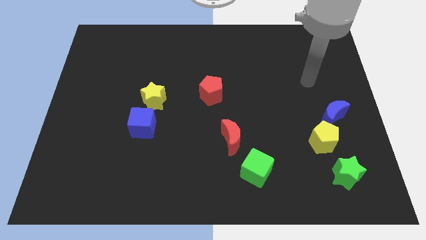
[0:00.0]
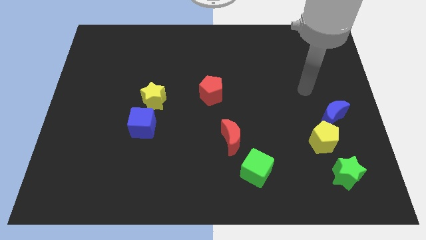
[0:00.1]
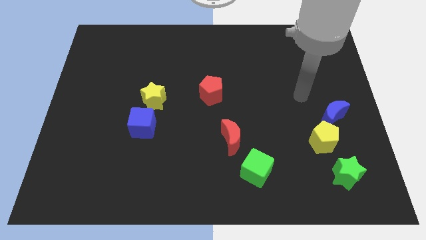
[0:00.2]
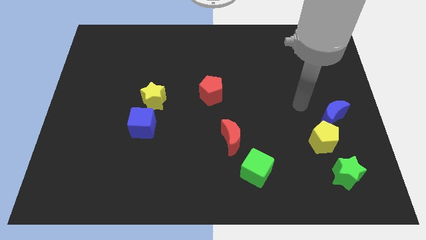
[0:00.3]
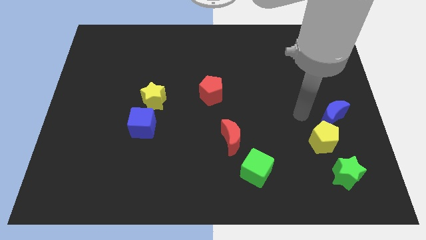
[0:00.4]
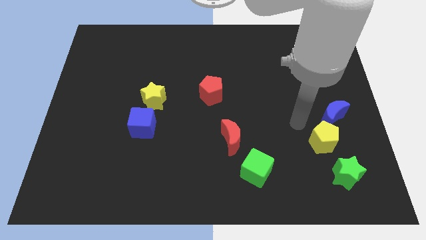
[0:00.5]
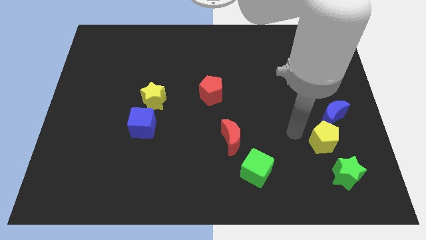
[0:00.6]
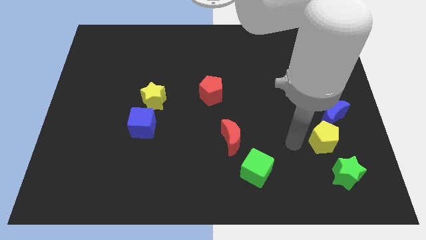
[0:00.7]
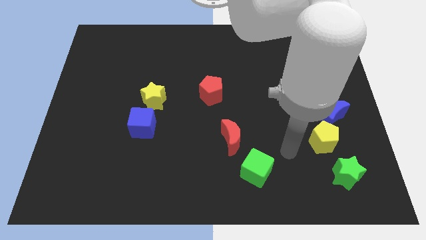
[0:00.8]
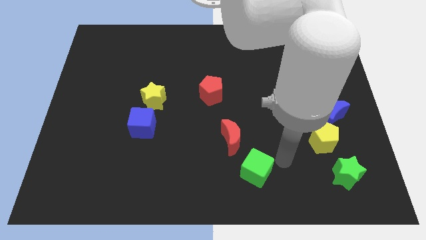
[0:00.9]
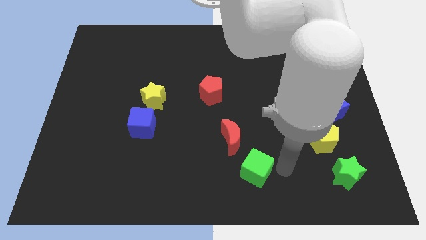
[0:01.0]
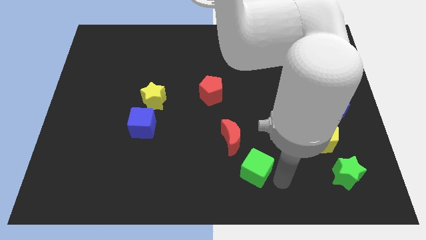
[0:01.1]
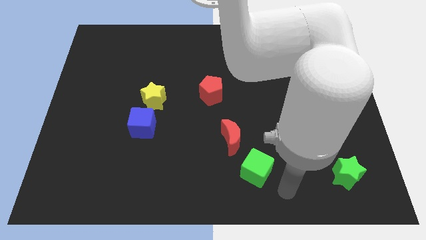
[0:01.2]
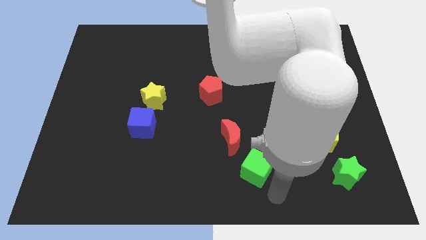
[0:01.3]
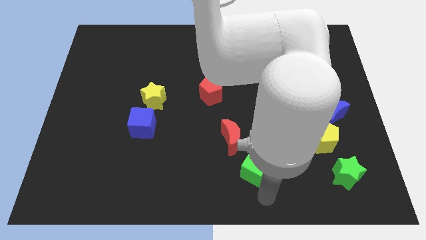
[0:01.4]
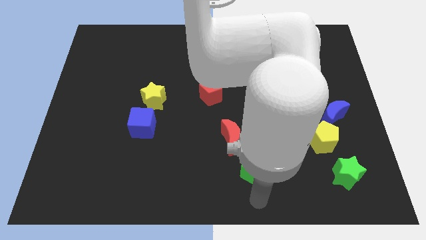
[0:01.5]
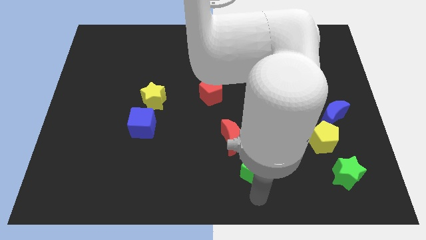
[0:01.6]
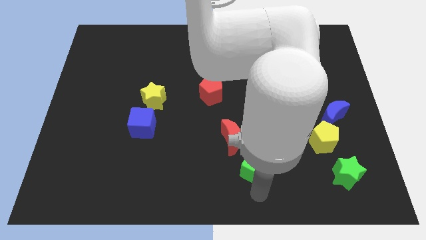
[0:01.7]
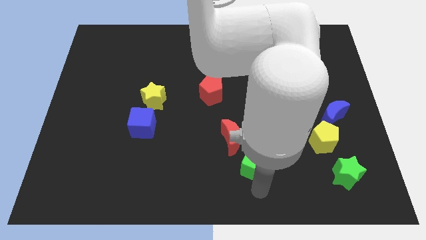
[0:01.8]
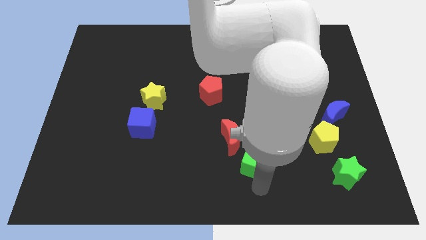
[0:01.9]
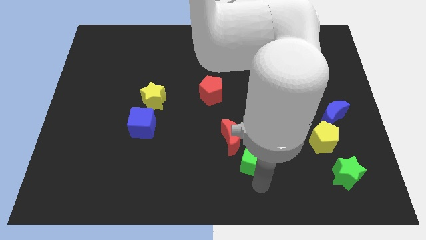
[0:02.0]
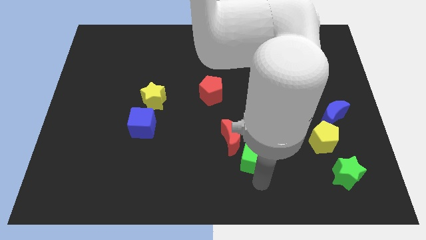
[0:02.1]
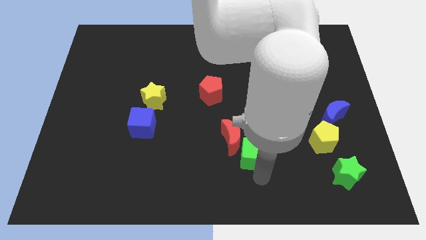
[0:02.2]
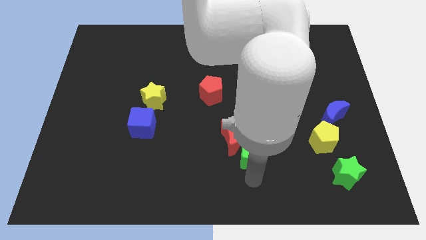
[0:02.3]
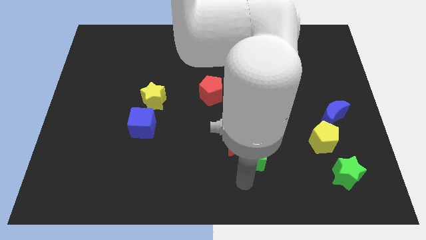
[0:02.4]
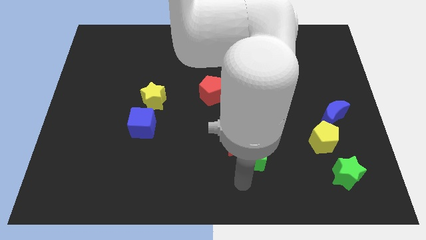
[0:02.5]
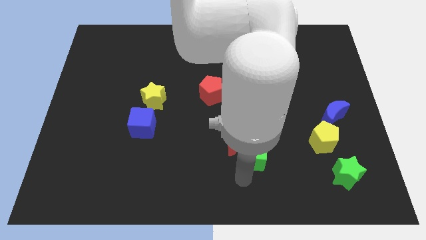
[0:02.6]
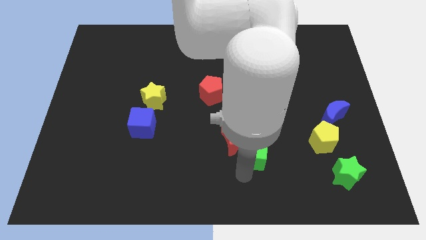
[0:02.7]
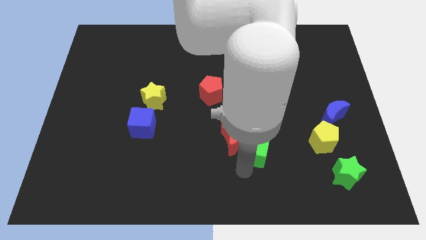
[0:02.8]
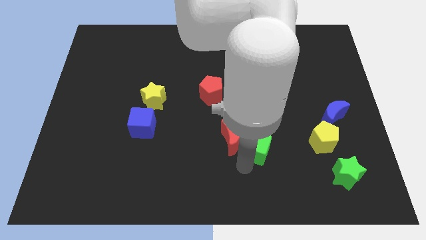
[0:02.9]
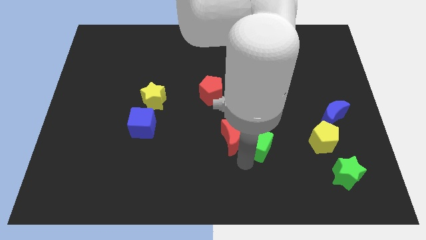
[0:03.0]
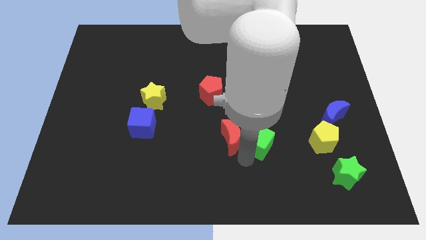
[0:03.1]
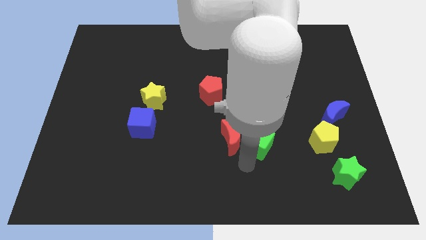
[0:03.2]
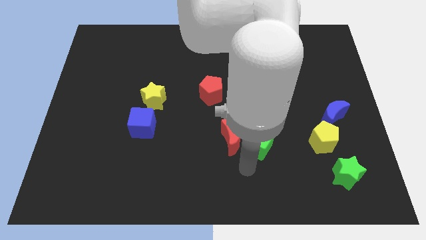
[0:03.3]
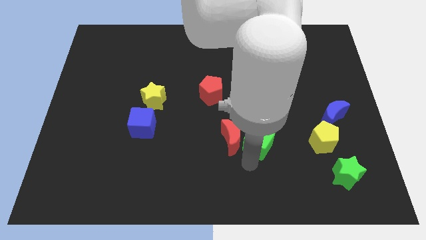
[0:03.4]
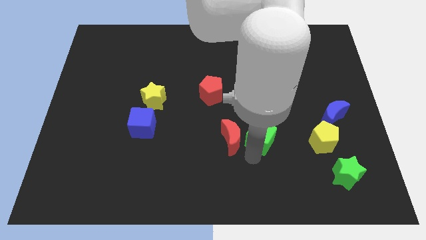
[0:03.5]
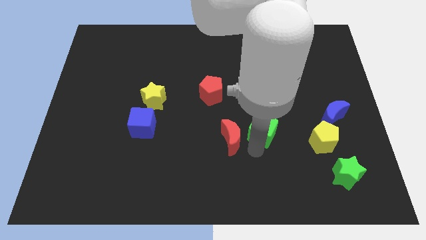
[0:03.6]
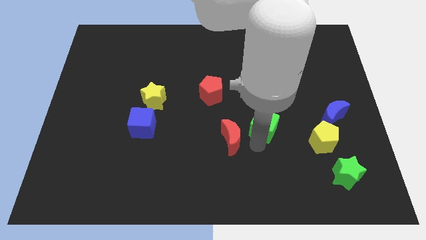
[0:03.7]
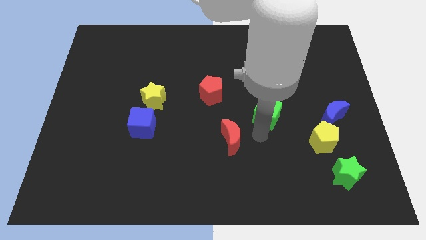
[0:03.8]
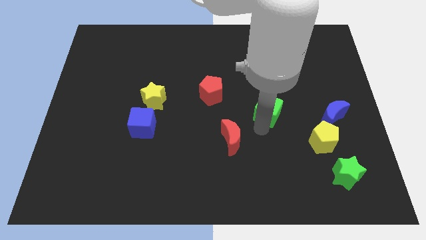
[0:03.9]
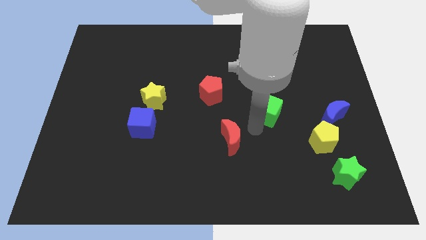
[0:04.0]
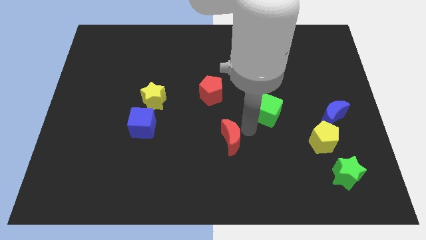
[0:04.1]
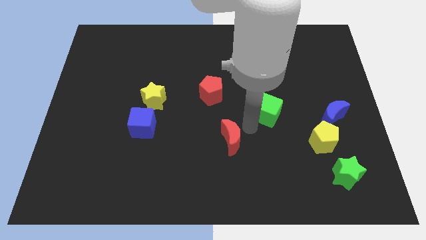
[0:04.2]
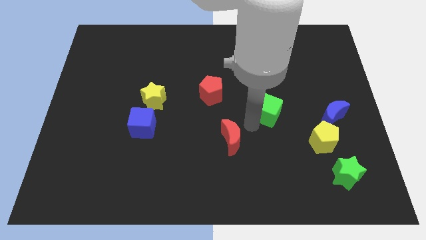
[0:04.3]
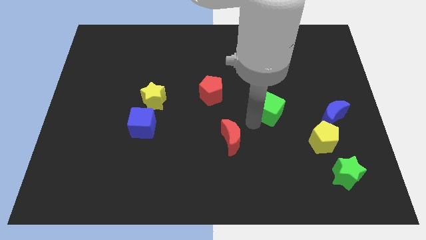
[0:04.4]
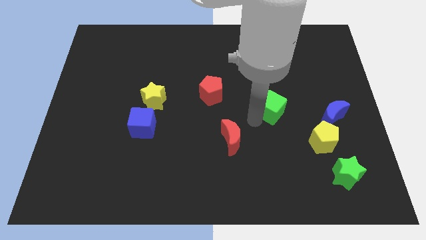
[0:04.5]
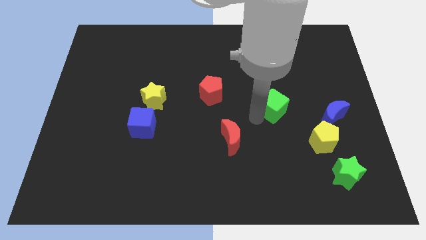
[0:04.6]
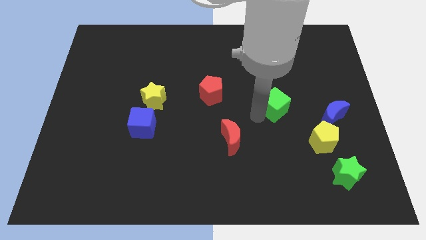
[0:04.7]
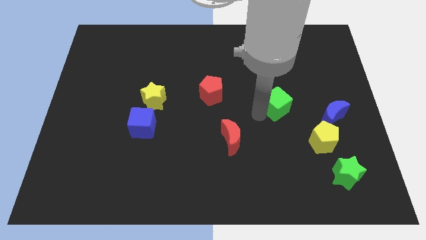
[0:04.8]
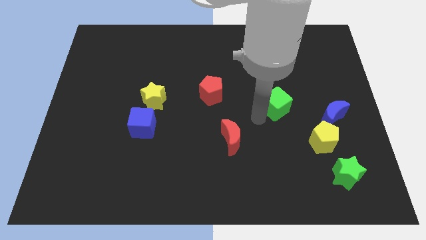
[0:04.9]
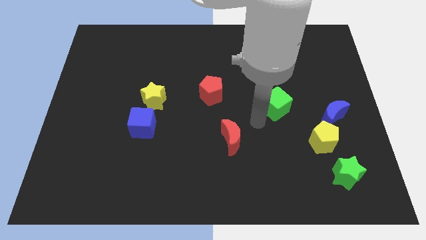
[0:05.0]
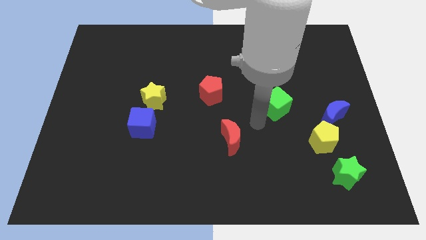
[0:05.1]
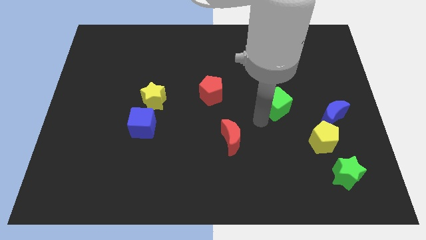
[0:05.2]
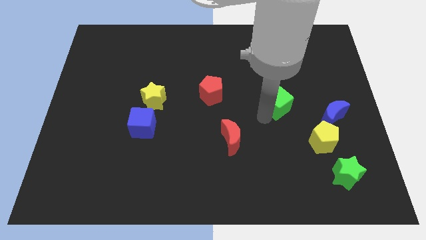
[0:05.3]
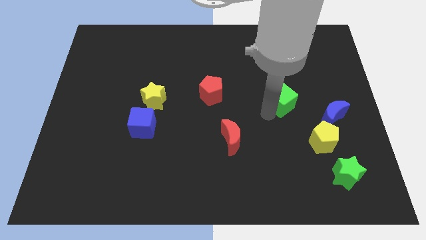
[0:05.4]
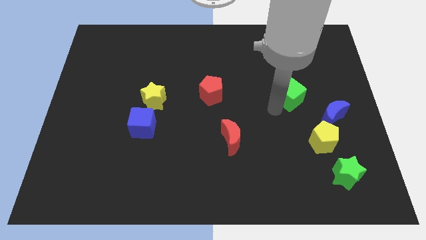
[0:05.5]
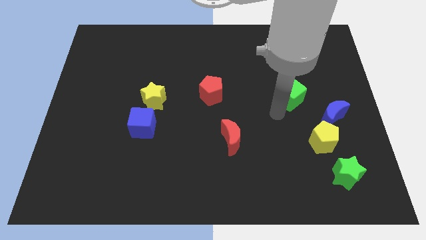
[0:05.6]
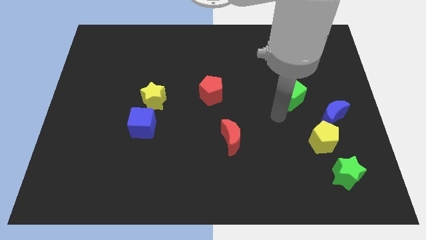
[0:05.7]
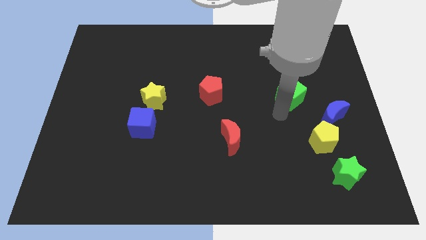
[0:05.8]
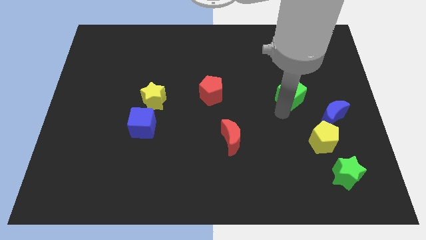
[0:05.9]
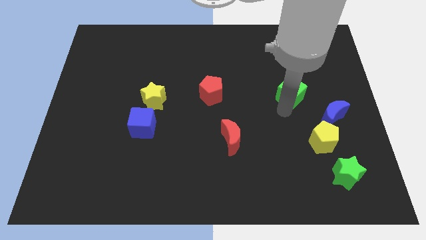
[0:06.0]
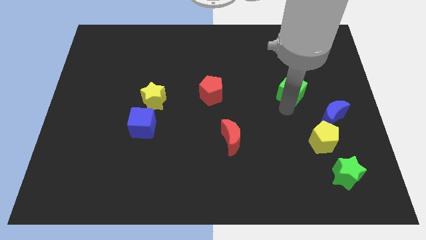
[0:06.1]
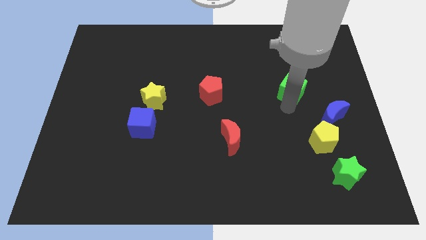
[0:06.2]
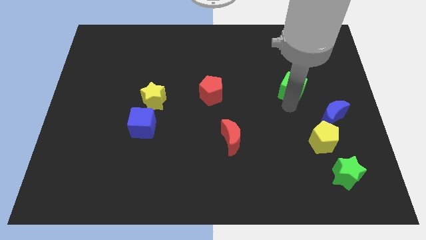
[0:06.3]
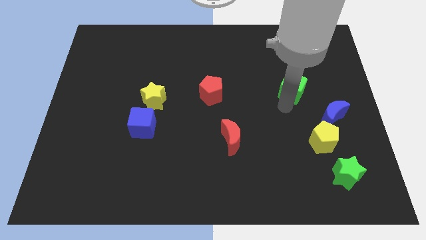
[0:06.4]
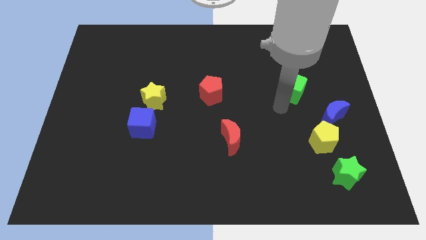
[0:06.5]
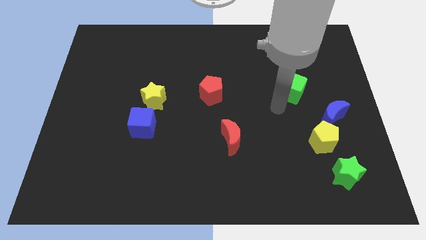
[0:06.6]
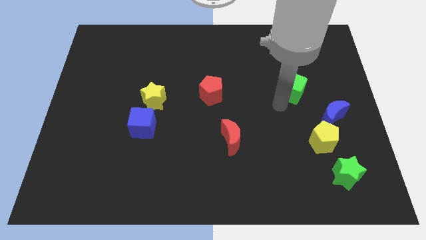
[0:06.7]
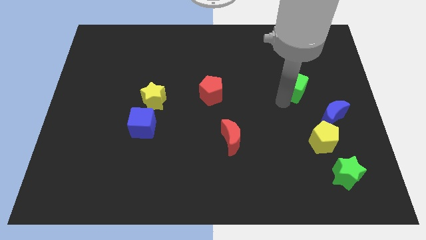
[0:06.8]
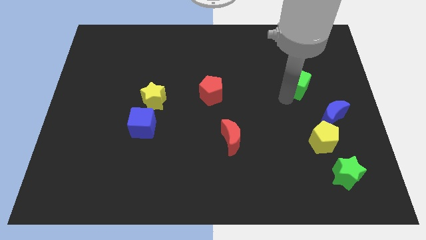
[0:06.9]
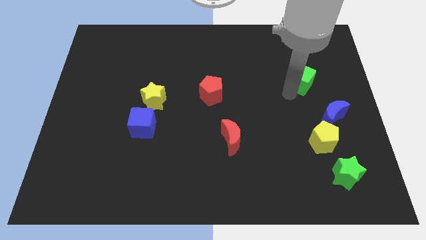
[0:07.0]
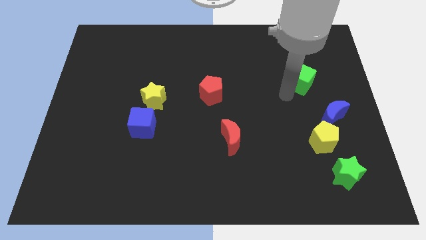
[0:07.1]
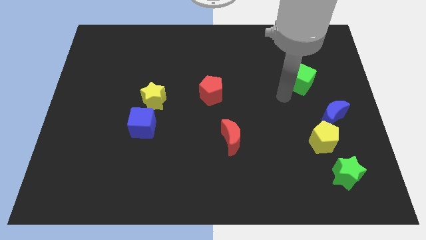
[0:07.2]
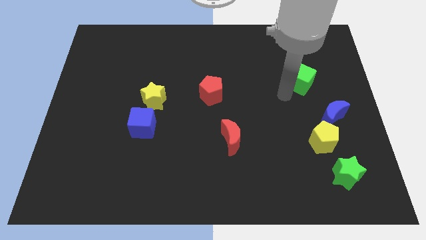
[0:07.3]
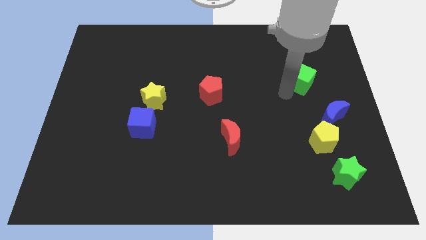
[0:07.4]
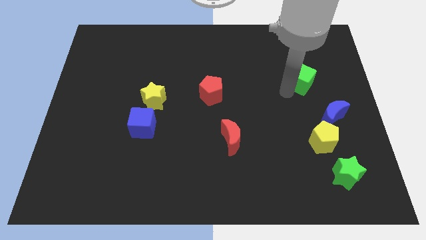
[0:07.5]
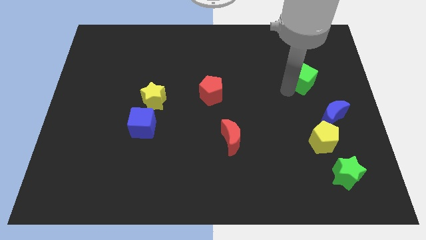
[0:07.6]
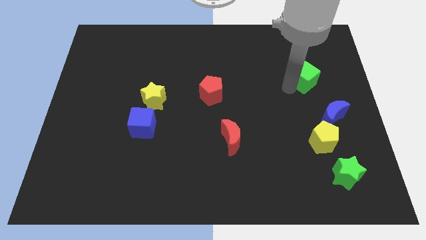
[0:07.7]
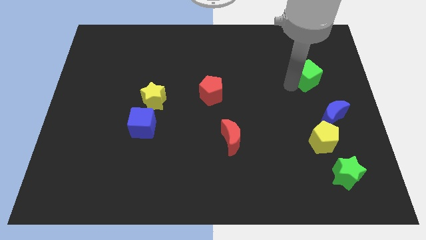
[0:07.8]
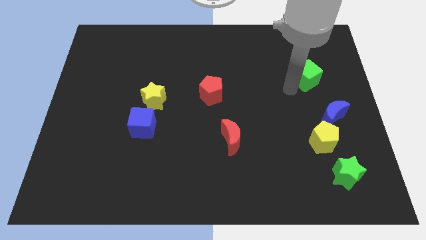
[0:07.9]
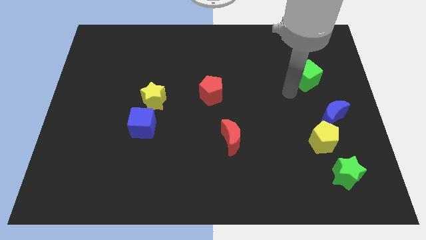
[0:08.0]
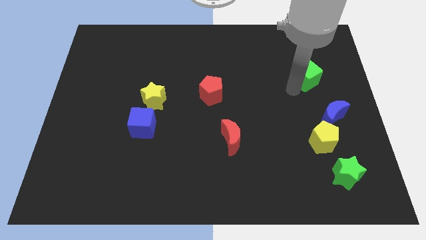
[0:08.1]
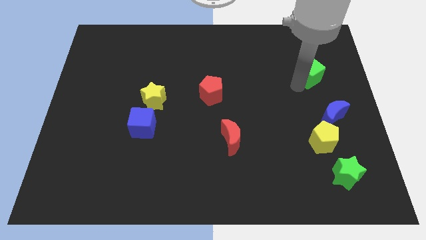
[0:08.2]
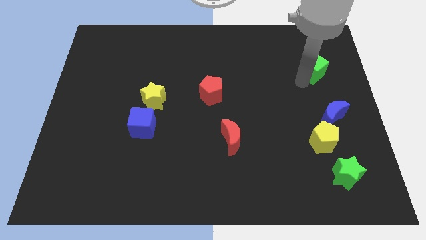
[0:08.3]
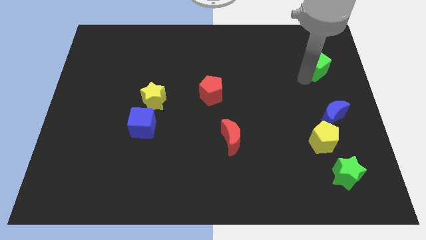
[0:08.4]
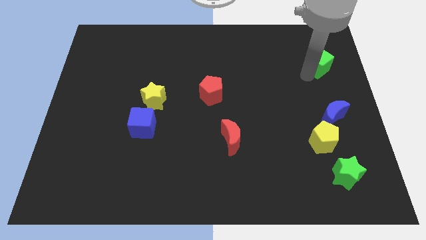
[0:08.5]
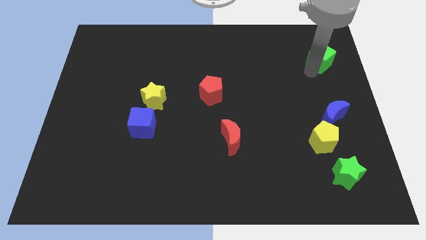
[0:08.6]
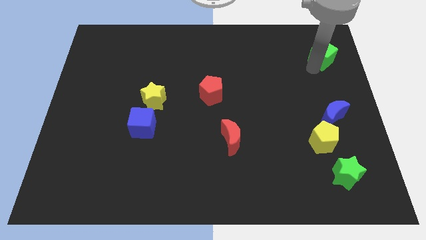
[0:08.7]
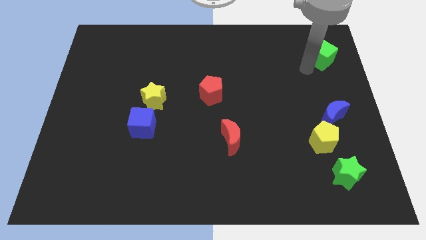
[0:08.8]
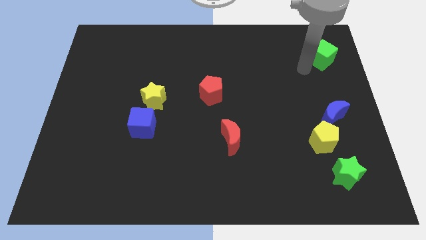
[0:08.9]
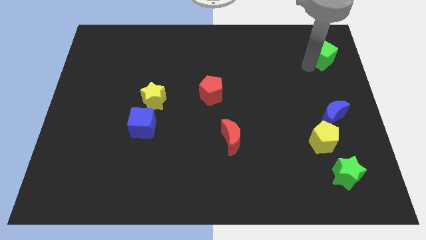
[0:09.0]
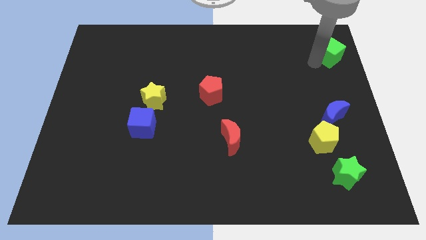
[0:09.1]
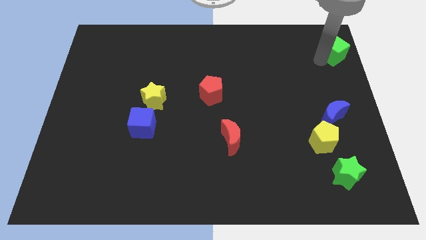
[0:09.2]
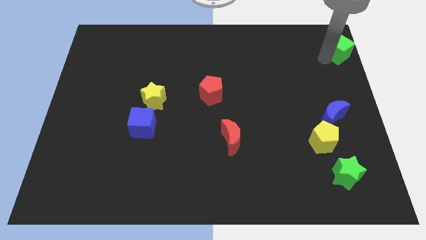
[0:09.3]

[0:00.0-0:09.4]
push the green cube to the top right of the board
